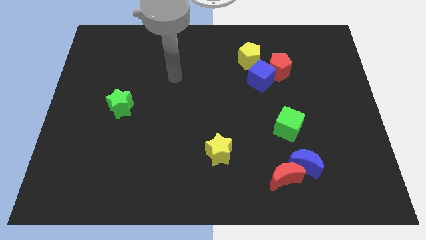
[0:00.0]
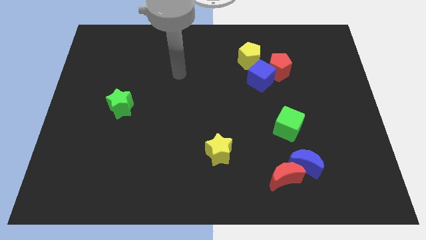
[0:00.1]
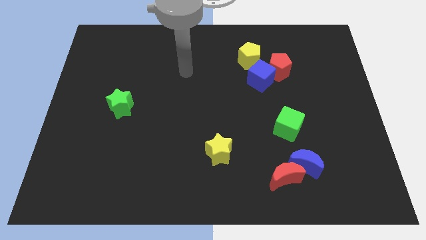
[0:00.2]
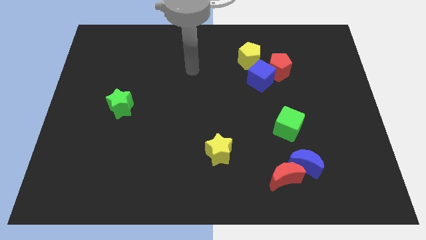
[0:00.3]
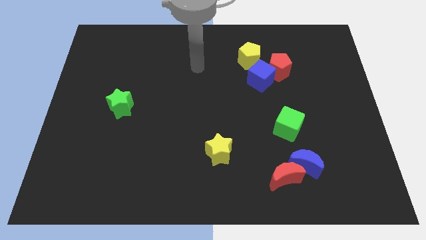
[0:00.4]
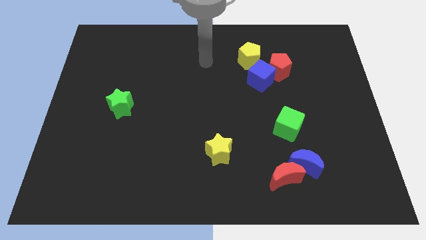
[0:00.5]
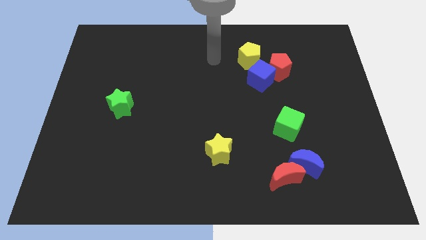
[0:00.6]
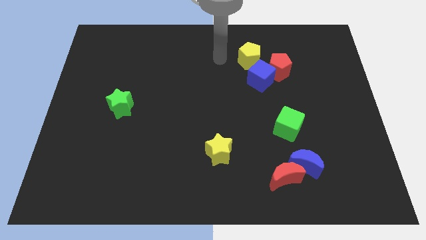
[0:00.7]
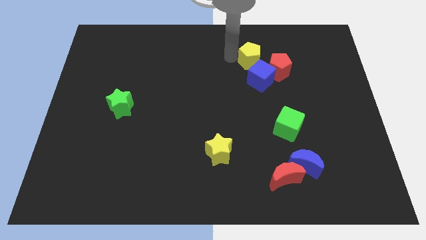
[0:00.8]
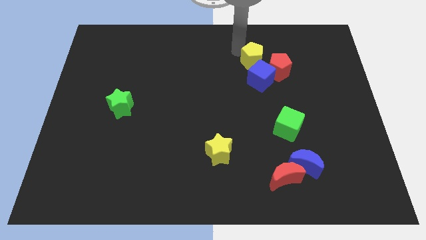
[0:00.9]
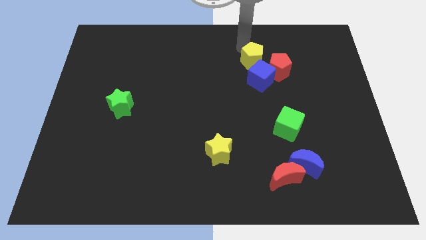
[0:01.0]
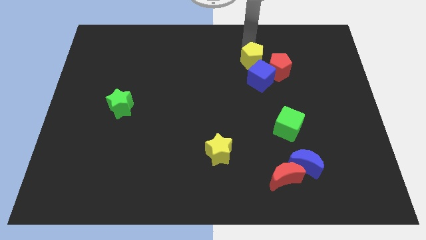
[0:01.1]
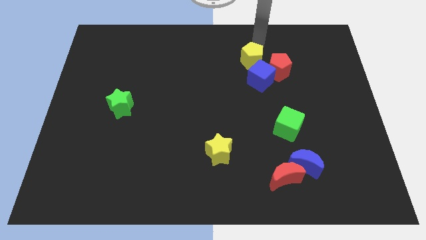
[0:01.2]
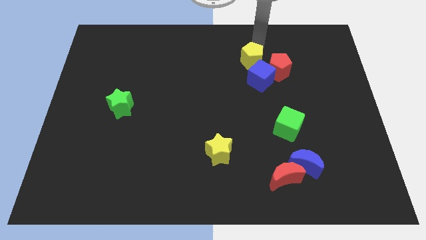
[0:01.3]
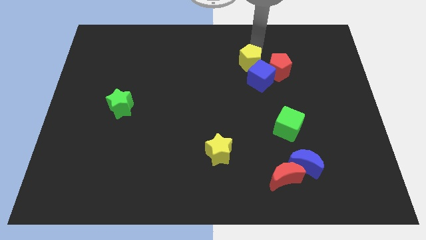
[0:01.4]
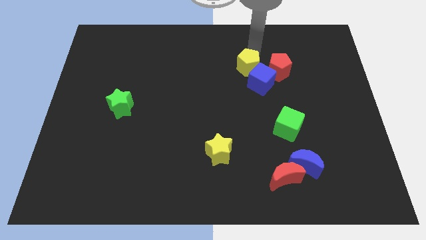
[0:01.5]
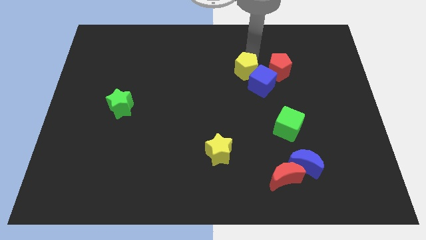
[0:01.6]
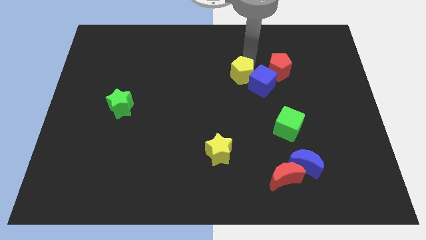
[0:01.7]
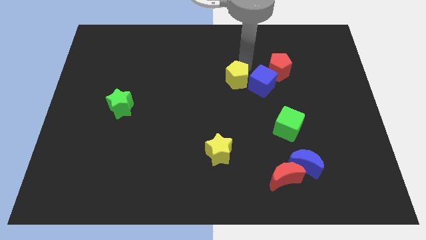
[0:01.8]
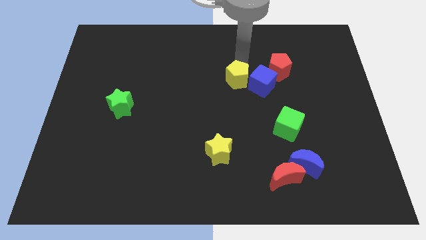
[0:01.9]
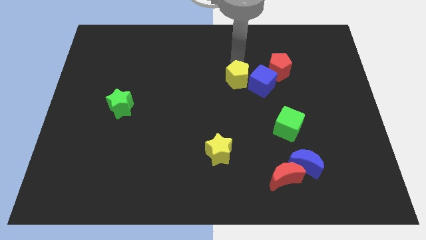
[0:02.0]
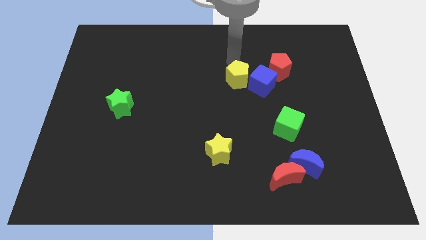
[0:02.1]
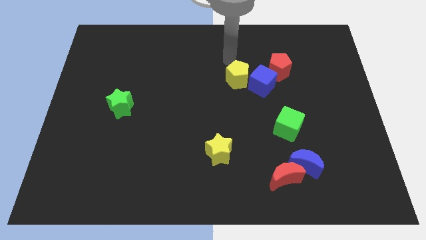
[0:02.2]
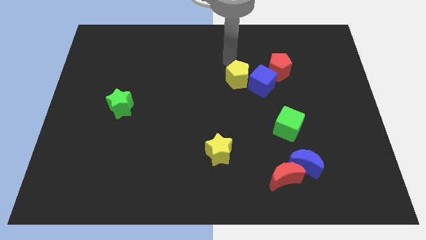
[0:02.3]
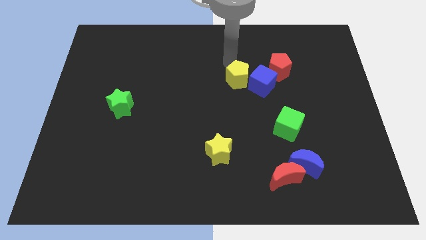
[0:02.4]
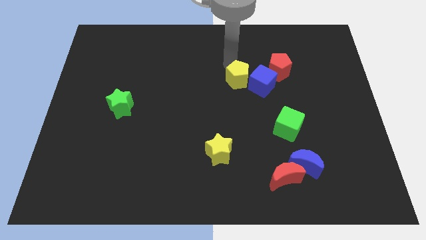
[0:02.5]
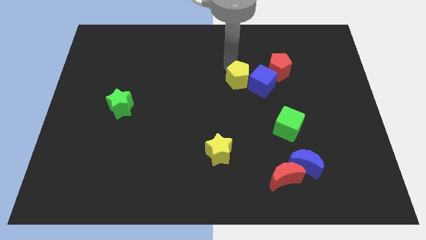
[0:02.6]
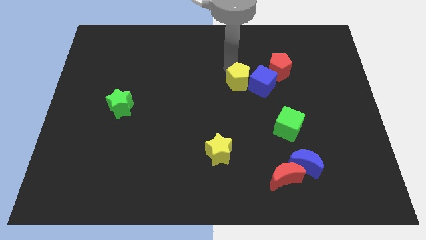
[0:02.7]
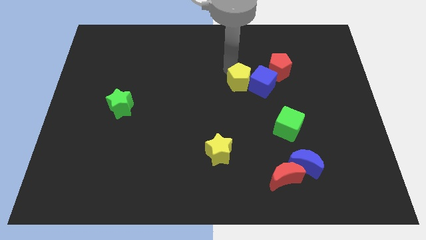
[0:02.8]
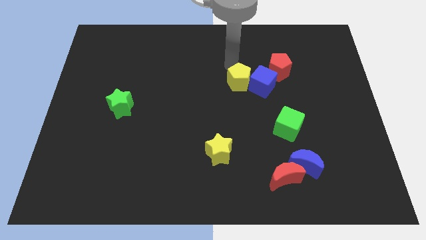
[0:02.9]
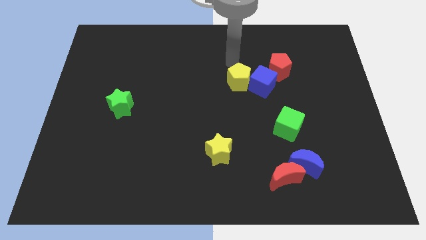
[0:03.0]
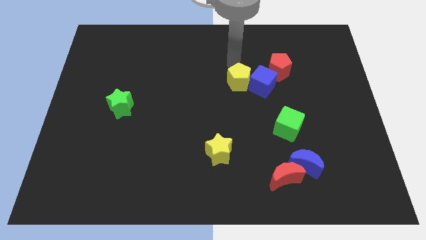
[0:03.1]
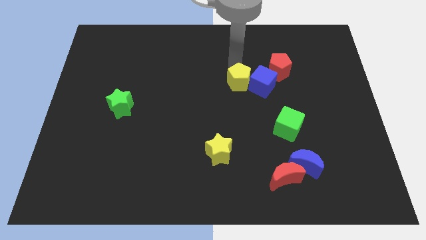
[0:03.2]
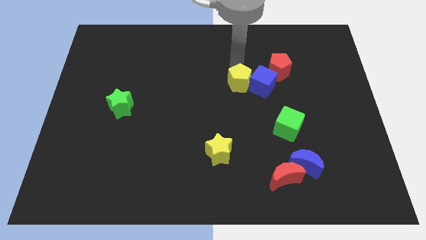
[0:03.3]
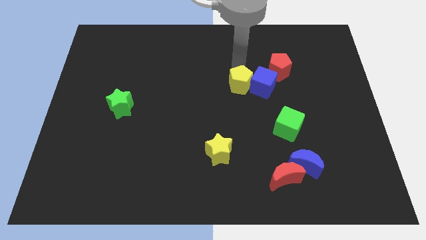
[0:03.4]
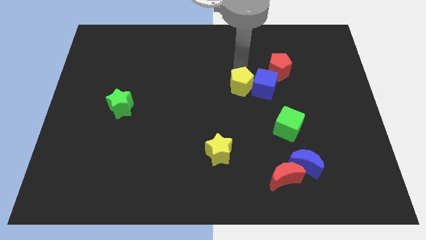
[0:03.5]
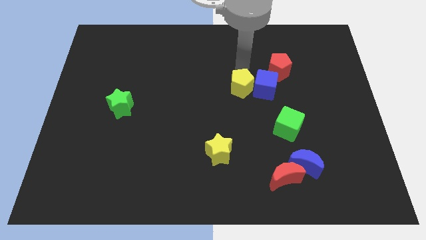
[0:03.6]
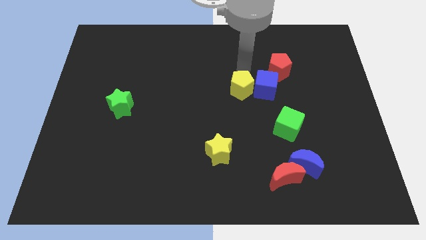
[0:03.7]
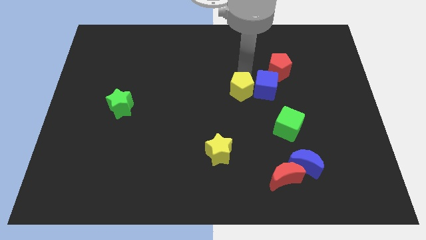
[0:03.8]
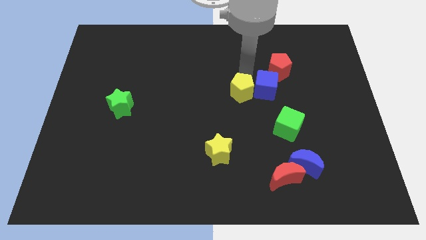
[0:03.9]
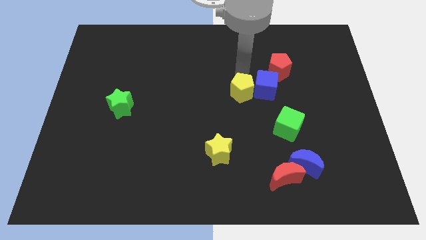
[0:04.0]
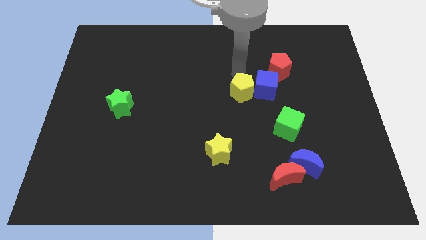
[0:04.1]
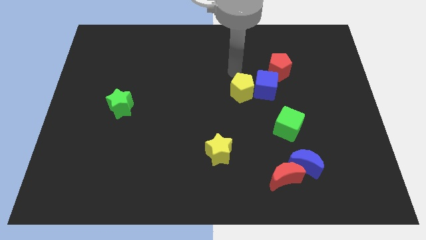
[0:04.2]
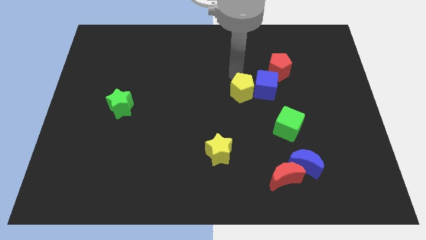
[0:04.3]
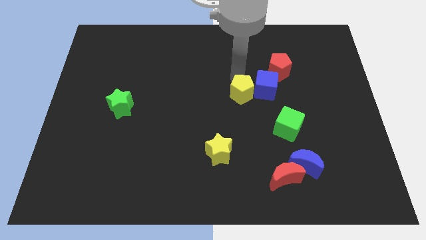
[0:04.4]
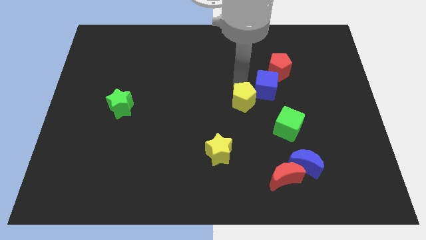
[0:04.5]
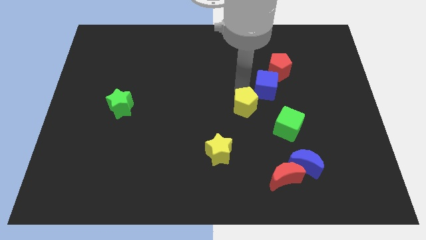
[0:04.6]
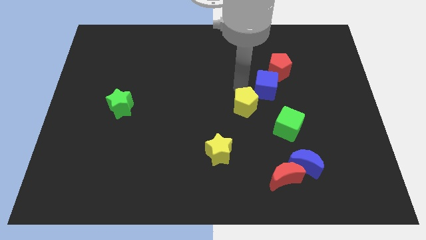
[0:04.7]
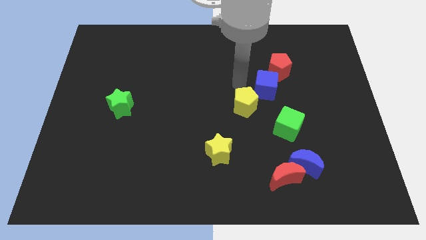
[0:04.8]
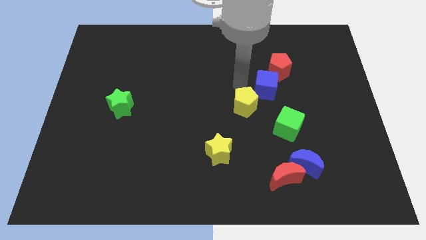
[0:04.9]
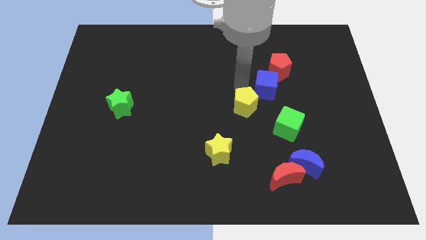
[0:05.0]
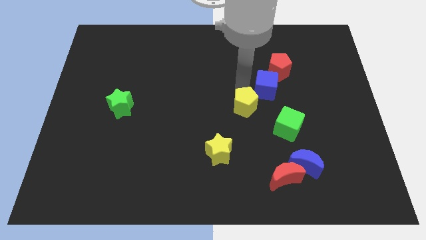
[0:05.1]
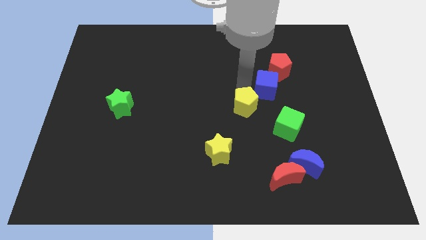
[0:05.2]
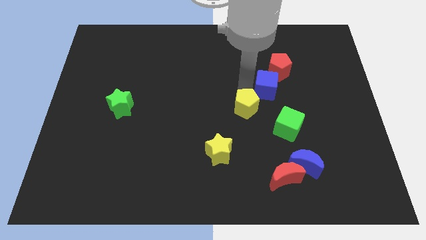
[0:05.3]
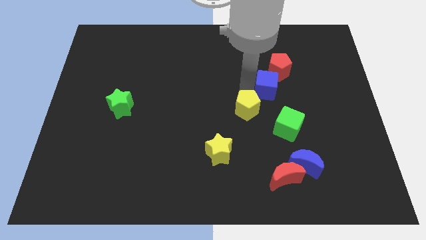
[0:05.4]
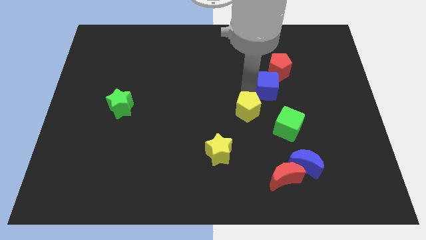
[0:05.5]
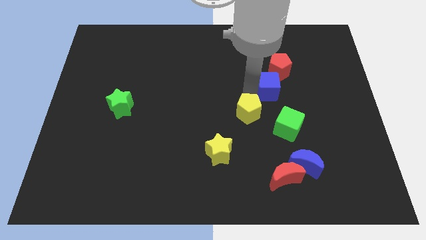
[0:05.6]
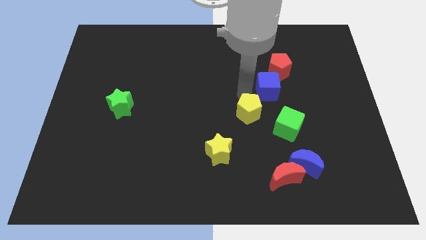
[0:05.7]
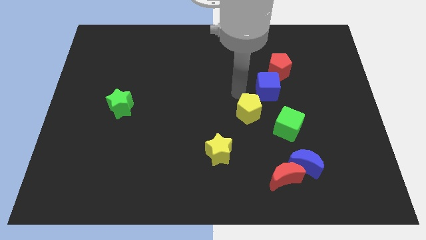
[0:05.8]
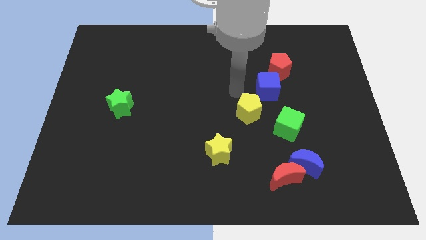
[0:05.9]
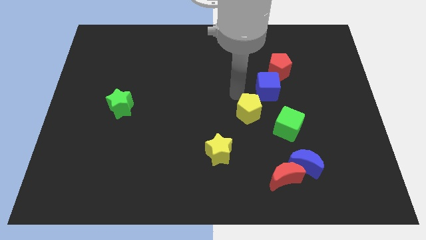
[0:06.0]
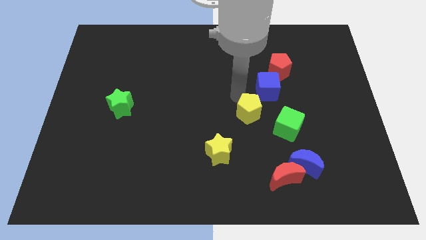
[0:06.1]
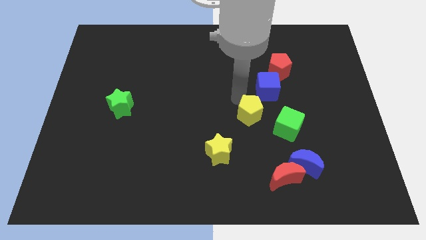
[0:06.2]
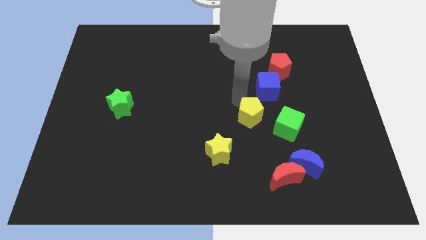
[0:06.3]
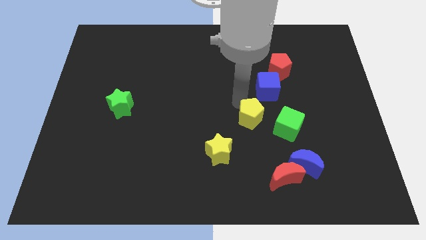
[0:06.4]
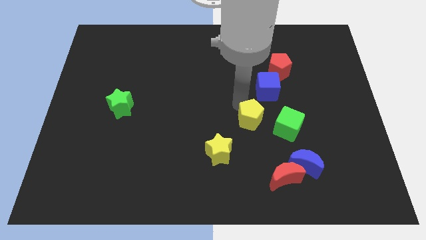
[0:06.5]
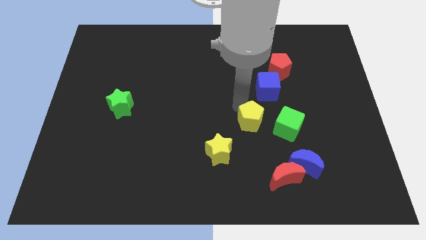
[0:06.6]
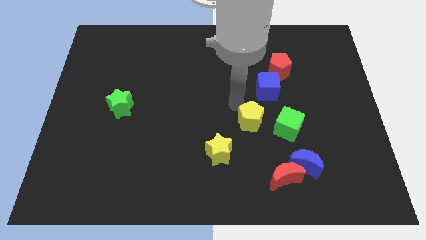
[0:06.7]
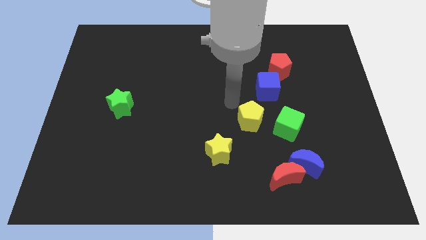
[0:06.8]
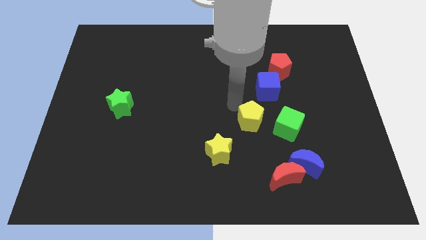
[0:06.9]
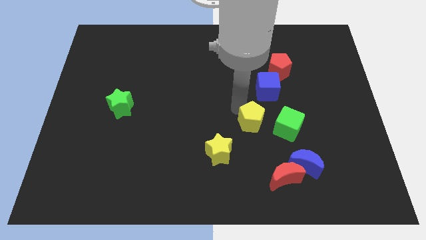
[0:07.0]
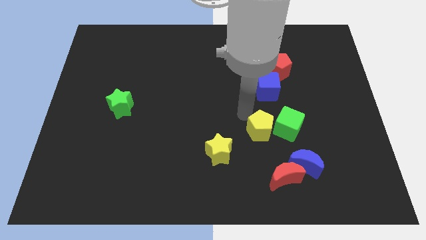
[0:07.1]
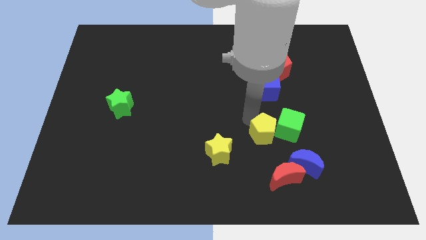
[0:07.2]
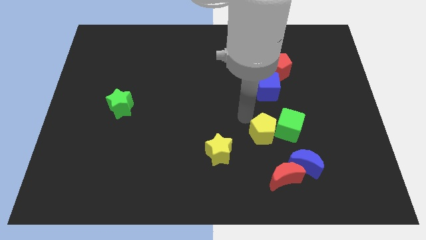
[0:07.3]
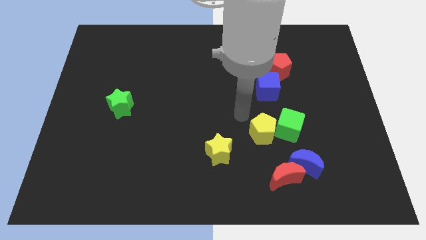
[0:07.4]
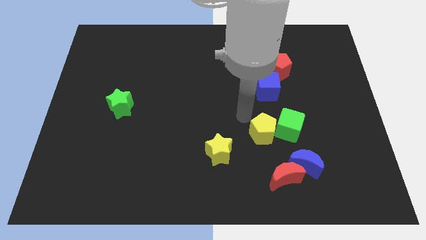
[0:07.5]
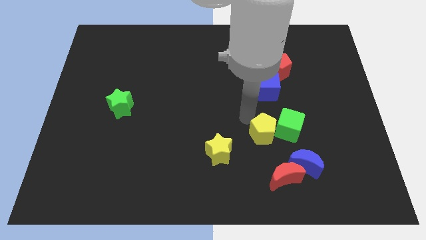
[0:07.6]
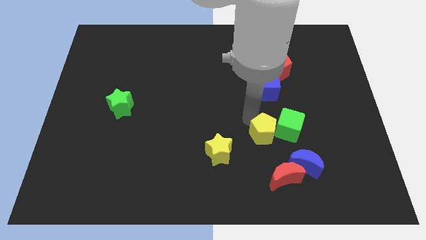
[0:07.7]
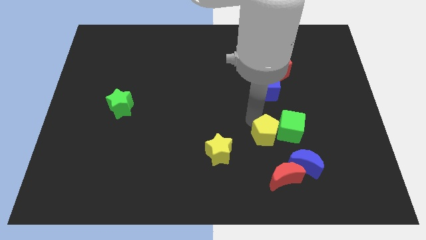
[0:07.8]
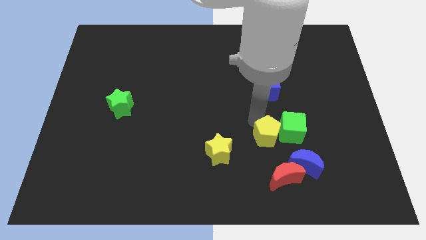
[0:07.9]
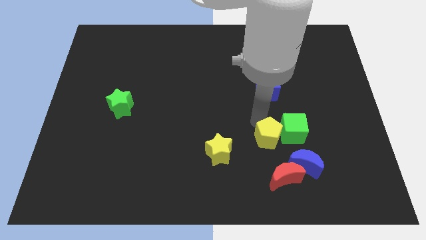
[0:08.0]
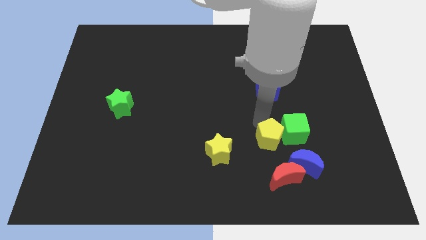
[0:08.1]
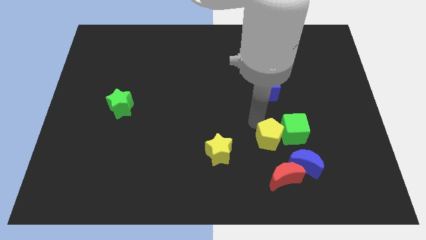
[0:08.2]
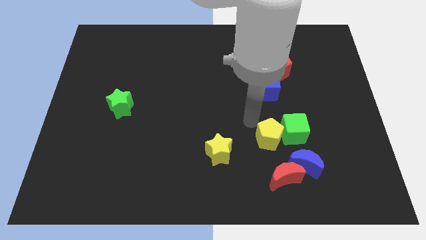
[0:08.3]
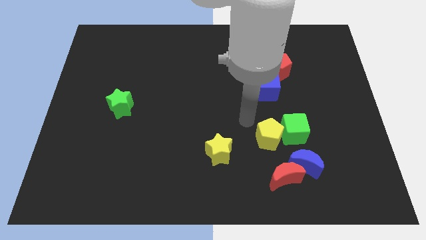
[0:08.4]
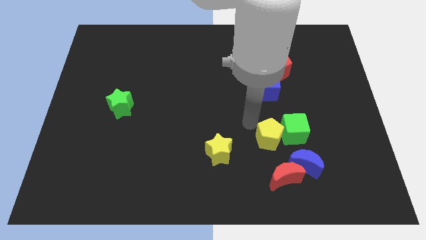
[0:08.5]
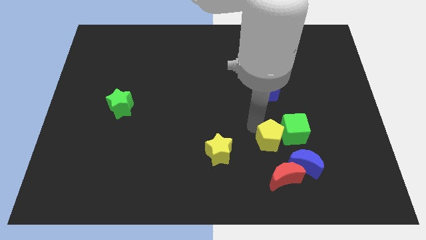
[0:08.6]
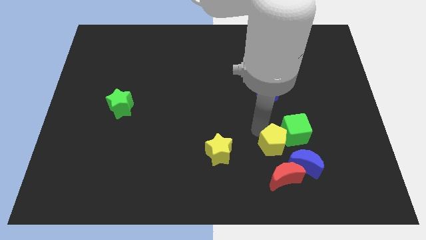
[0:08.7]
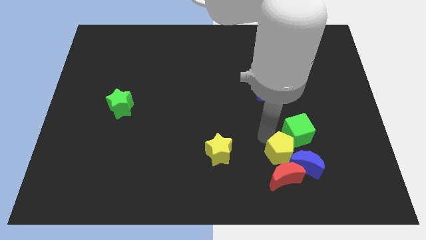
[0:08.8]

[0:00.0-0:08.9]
move the yellow pentagon close to the blue moon
